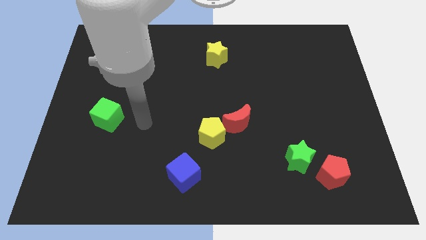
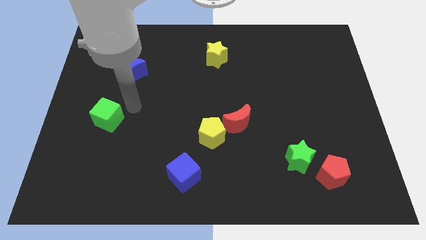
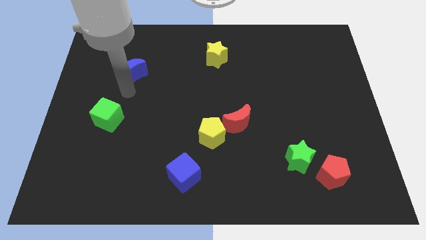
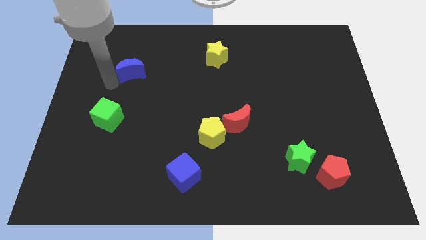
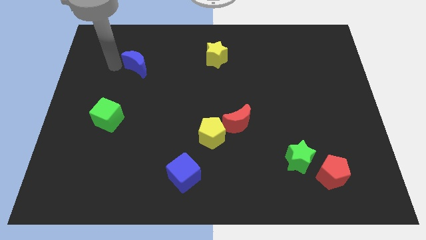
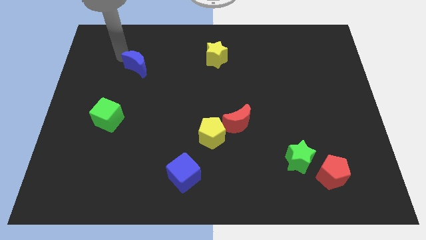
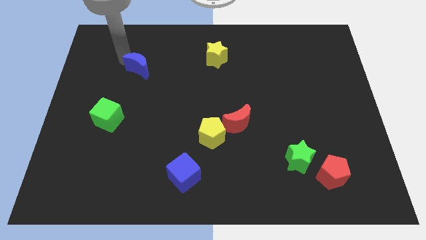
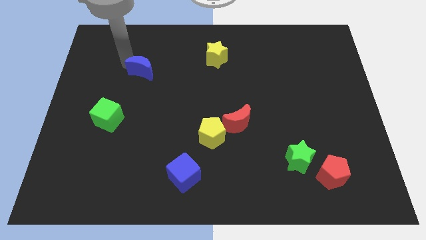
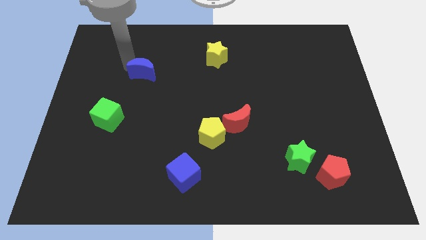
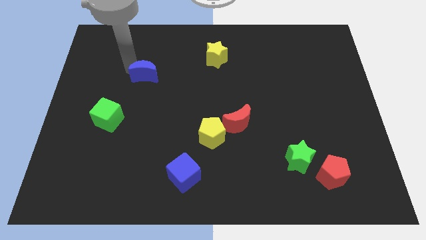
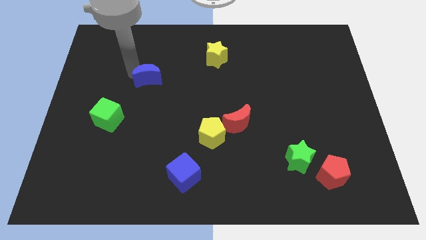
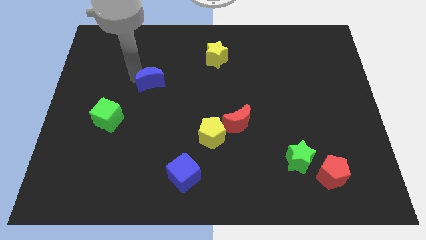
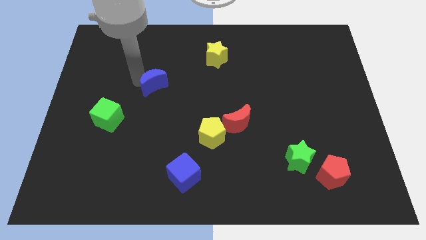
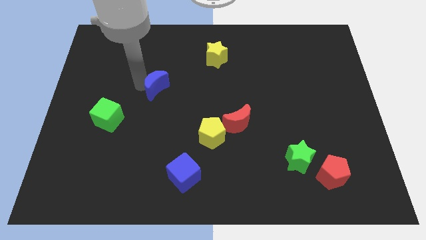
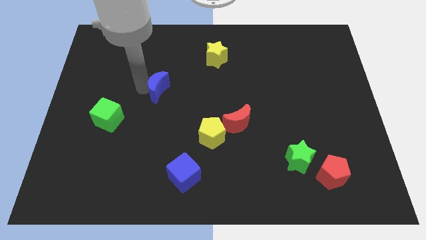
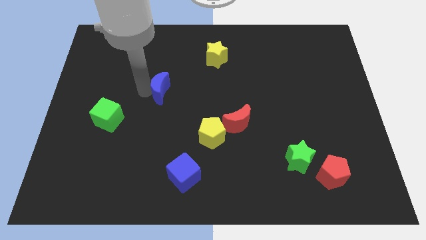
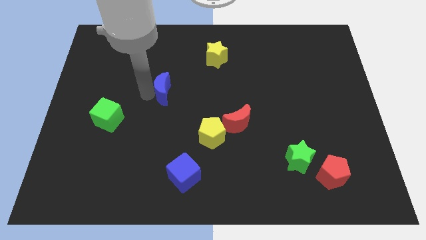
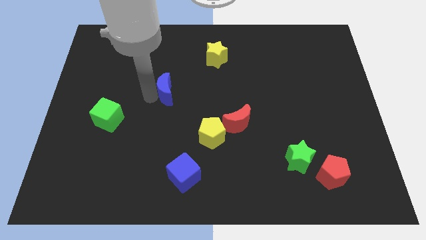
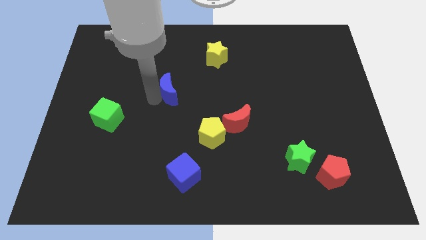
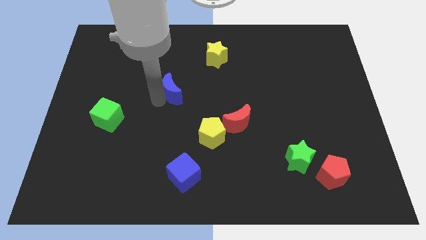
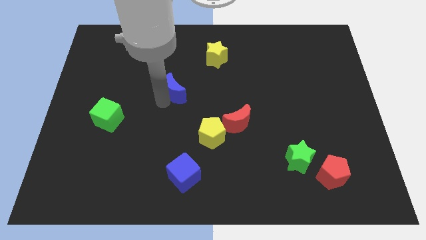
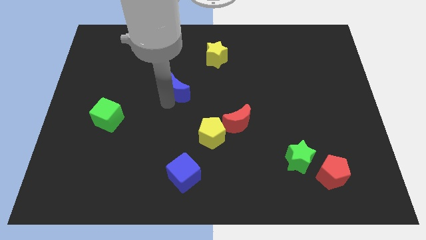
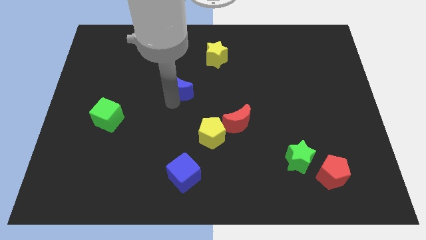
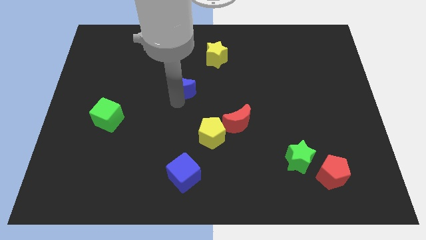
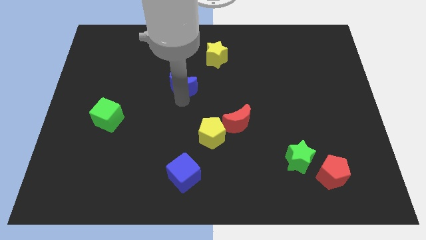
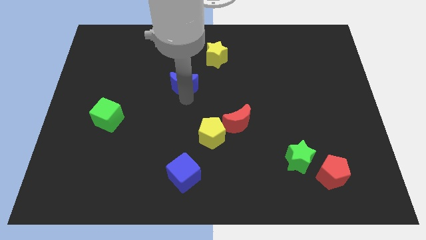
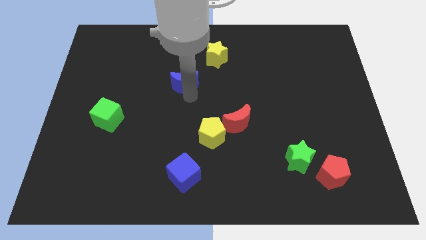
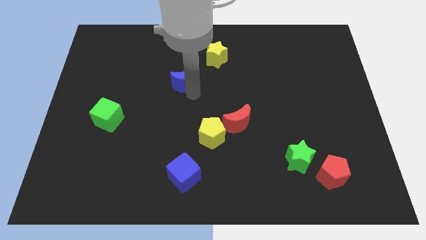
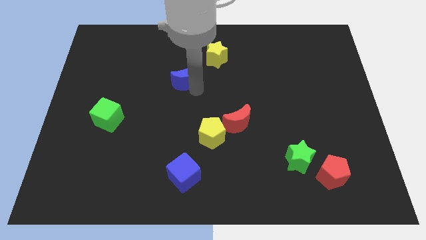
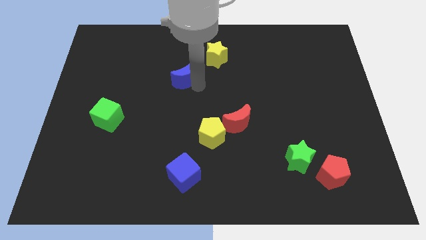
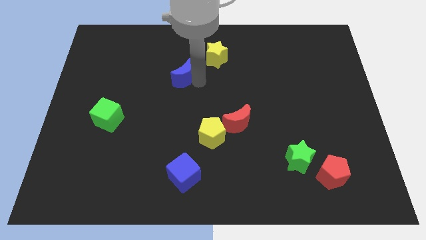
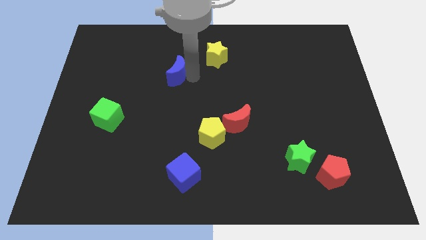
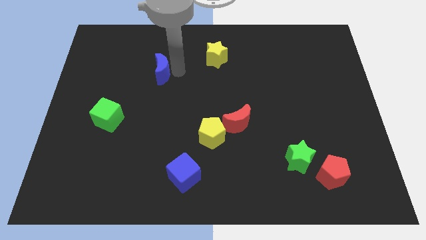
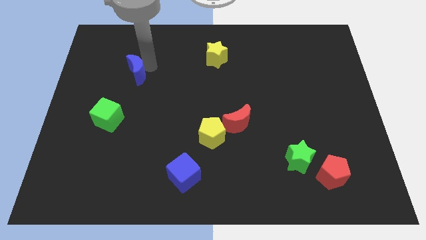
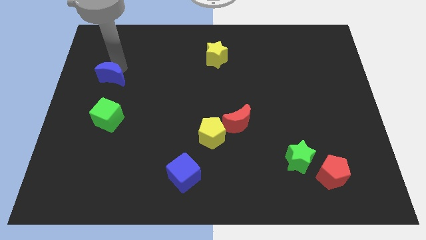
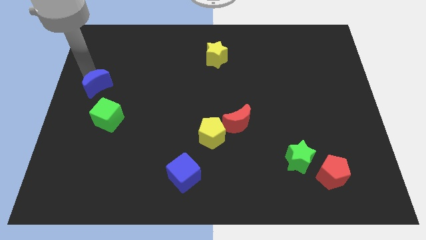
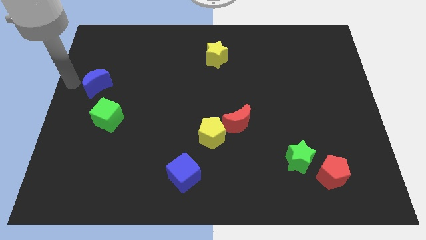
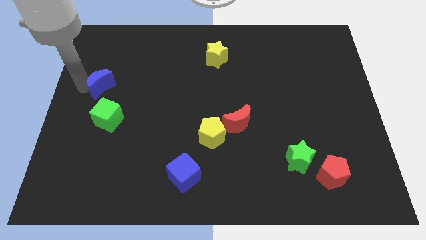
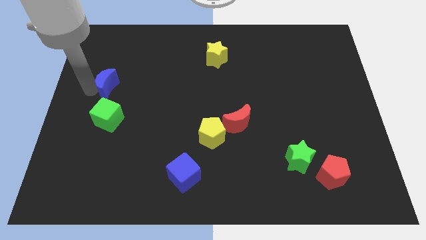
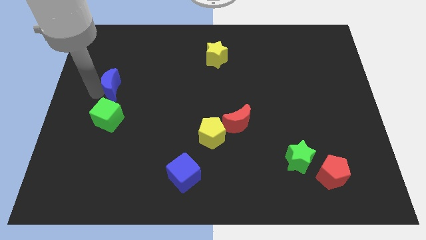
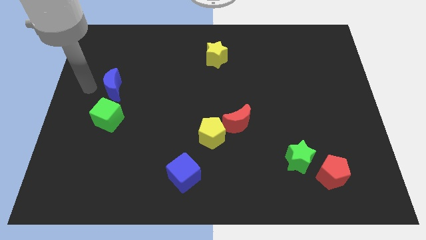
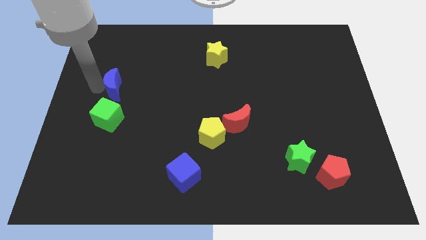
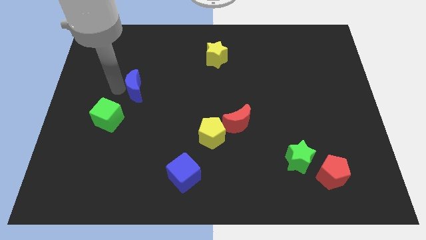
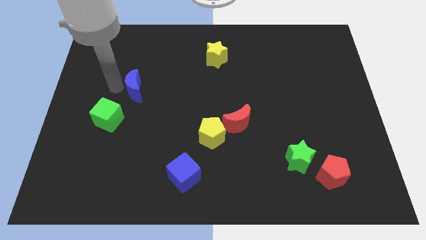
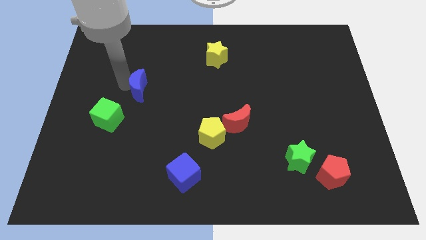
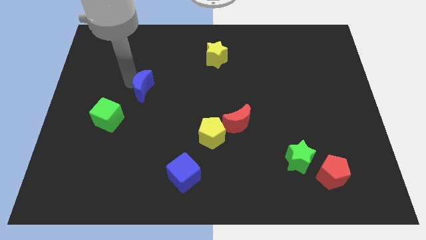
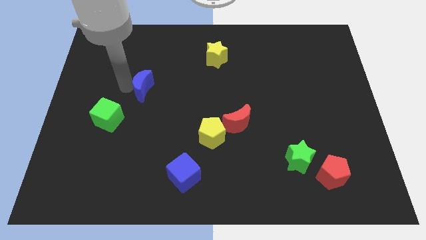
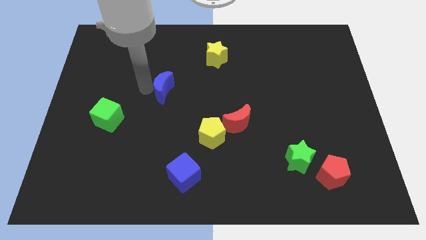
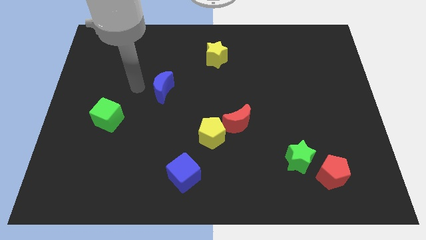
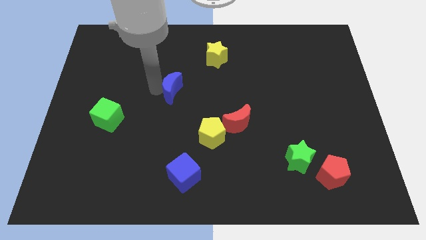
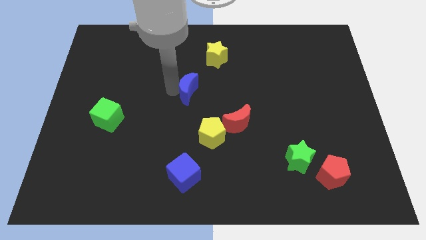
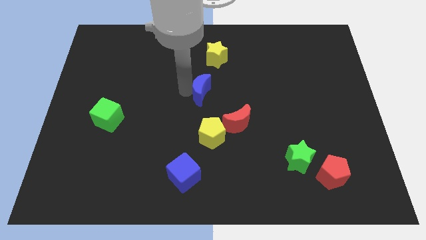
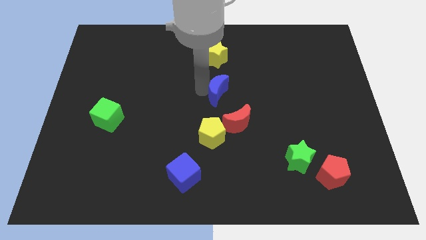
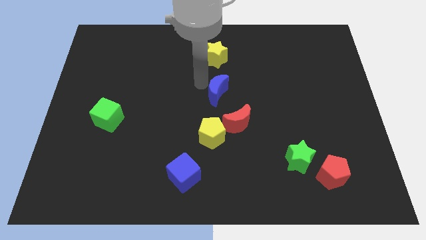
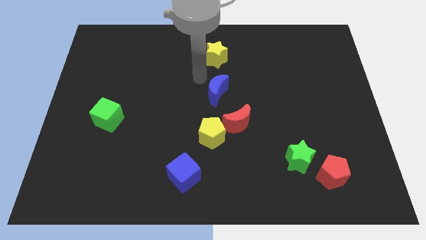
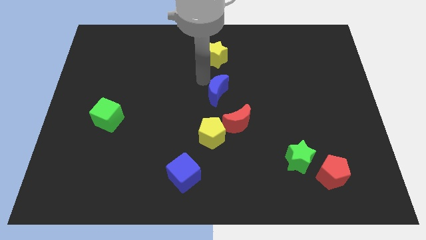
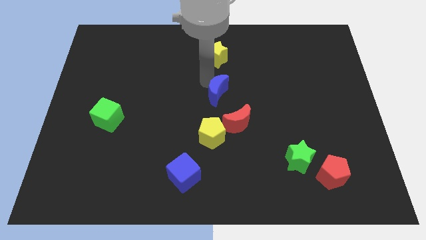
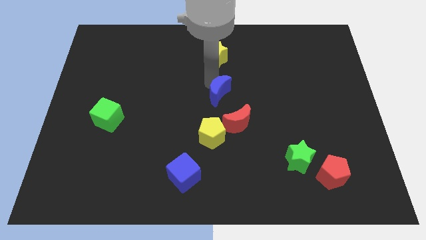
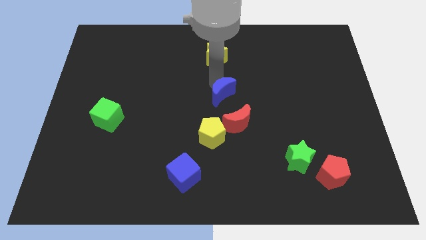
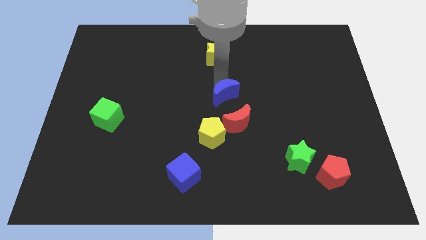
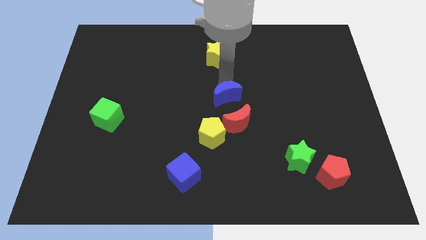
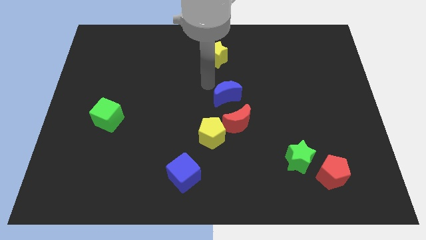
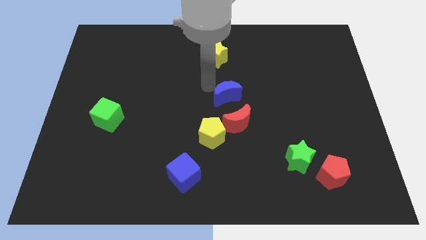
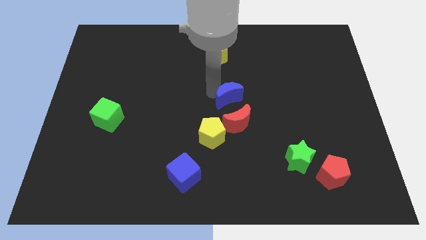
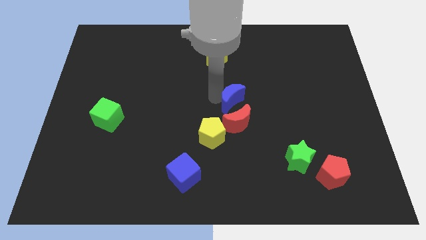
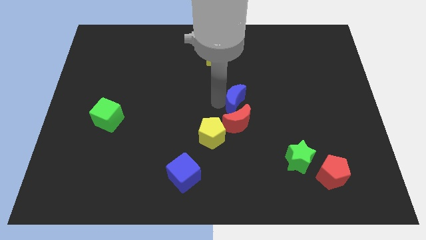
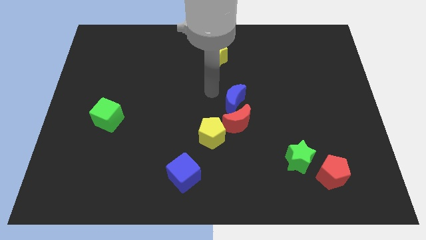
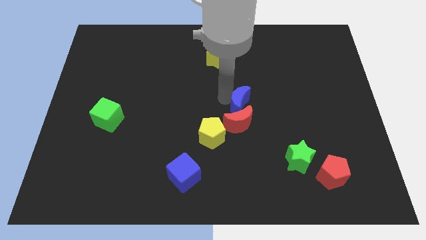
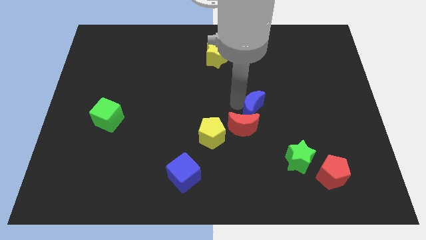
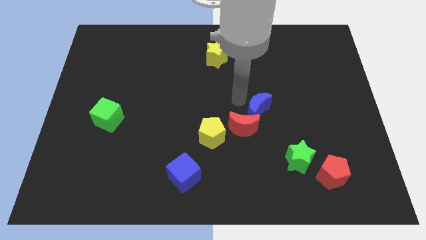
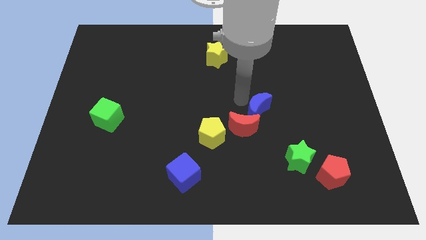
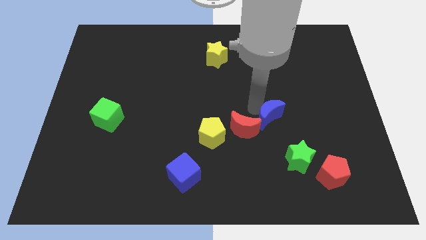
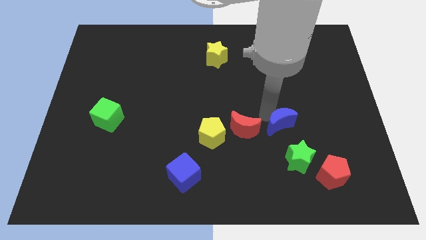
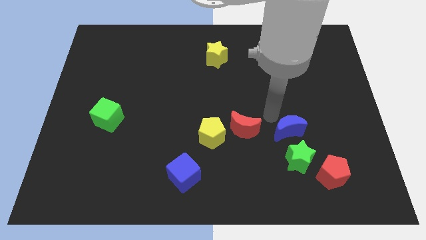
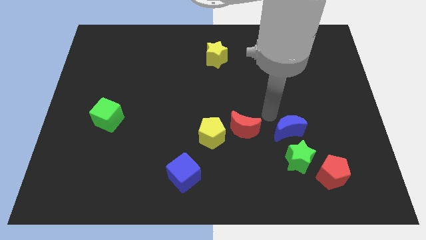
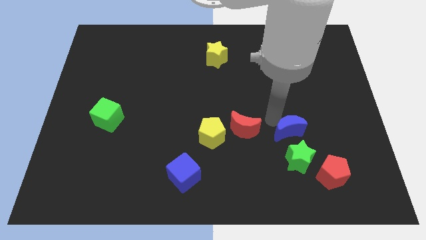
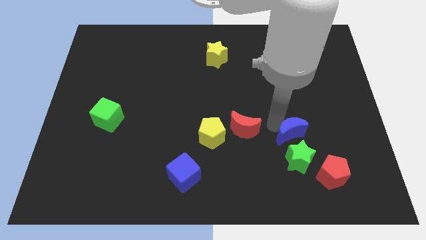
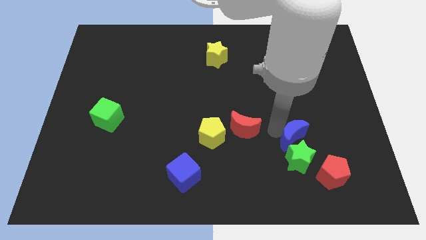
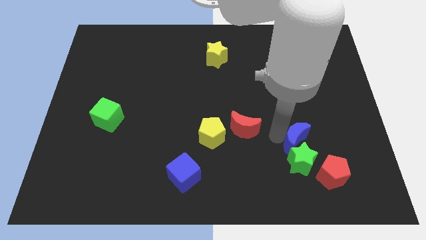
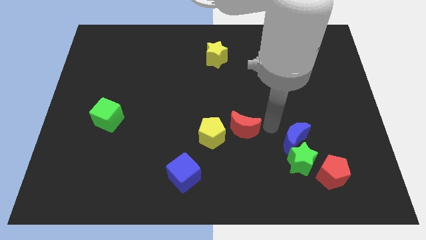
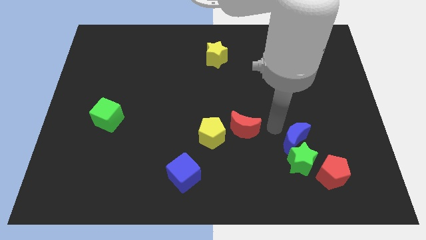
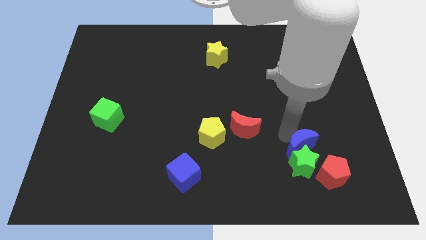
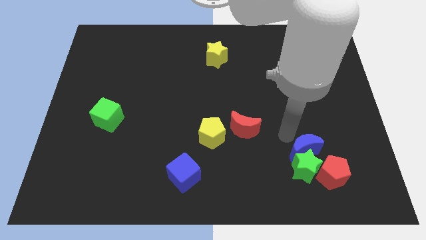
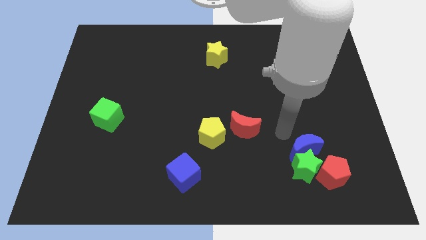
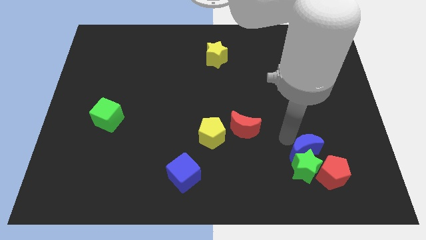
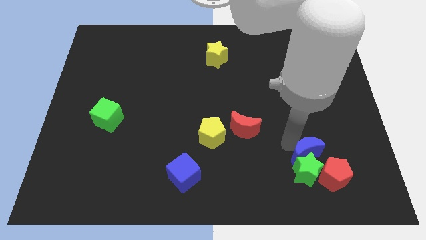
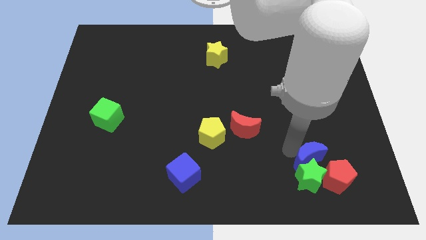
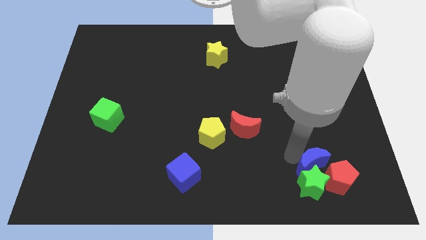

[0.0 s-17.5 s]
slide the blue moon to the red pentagon
